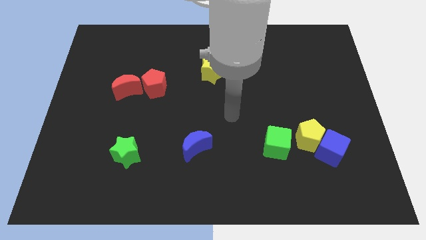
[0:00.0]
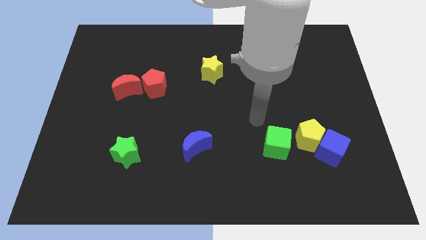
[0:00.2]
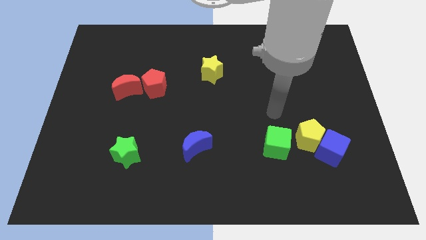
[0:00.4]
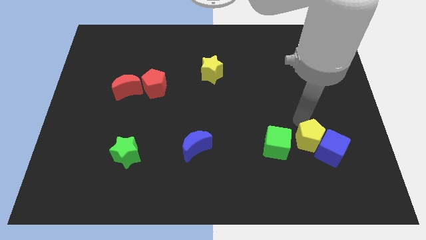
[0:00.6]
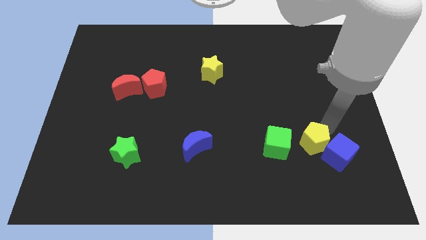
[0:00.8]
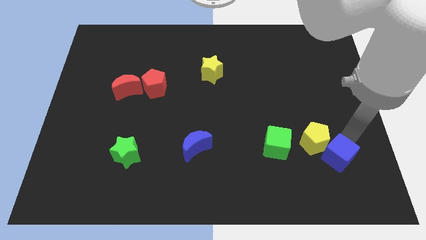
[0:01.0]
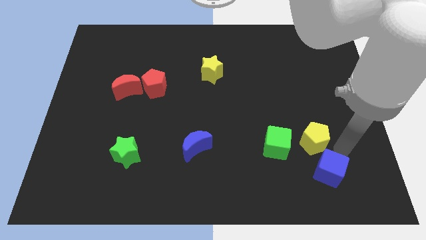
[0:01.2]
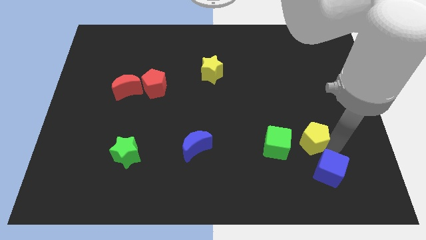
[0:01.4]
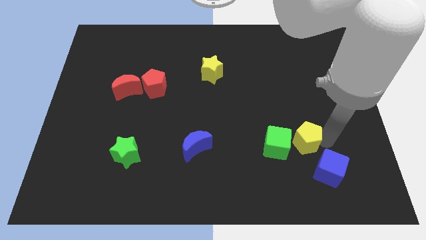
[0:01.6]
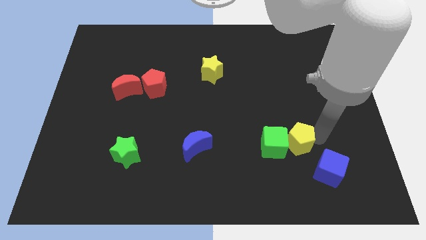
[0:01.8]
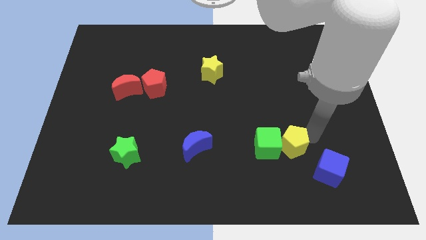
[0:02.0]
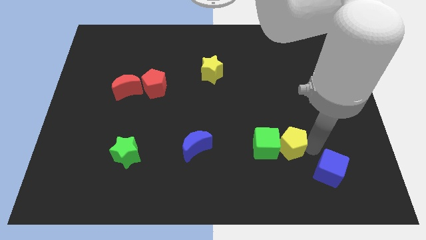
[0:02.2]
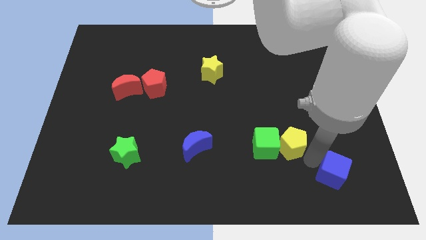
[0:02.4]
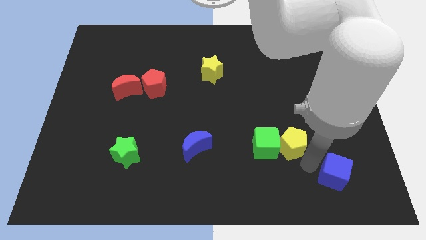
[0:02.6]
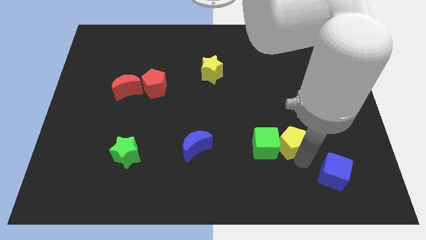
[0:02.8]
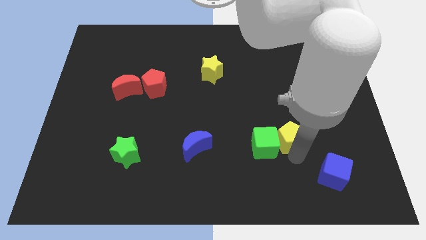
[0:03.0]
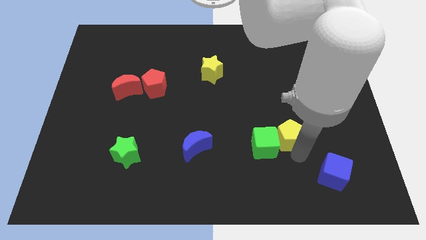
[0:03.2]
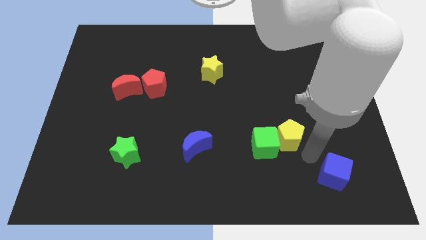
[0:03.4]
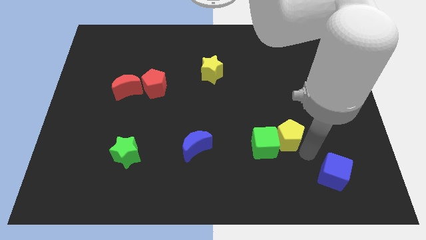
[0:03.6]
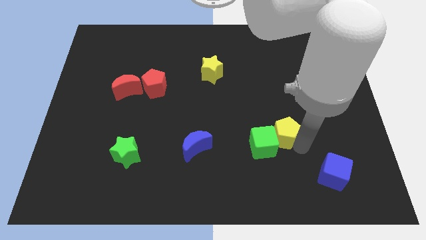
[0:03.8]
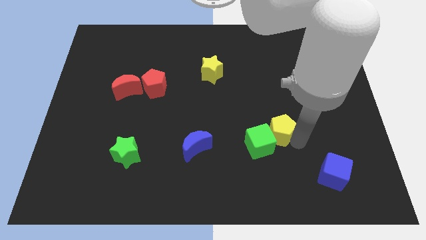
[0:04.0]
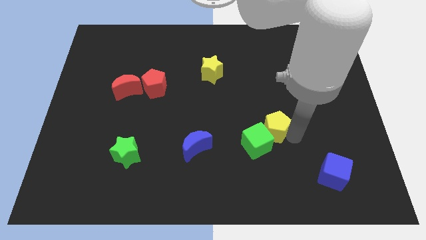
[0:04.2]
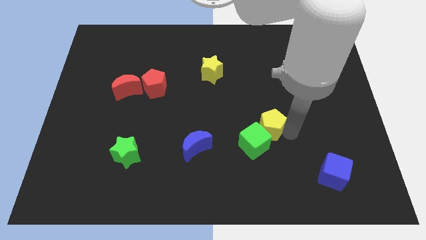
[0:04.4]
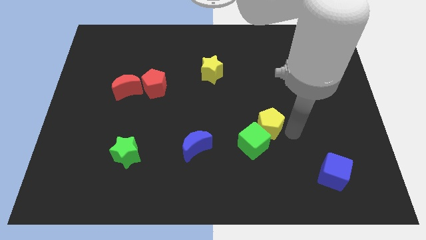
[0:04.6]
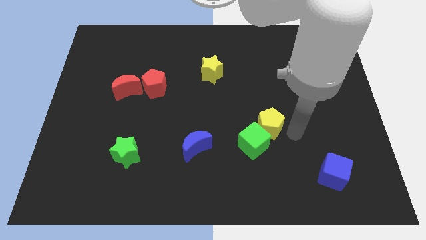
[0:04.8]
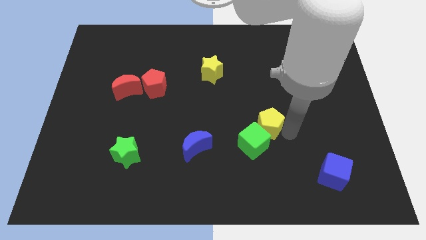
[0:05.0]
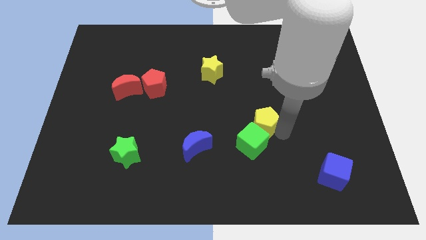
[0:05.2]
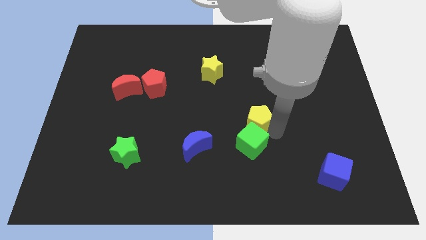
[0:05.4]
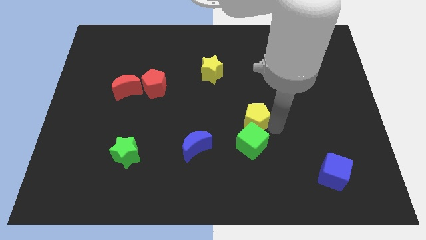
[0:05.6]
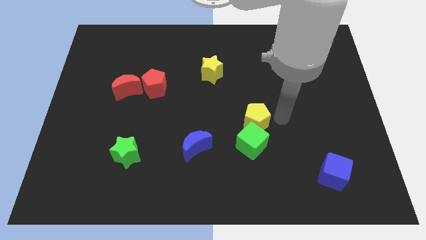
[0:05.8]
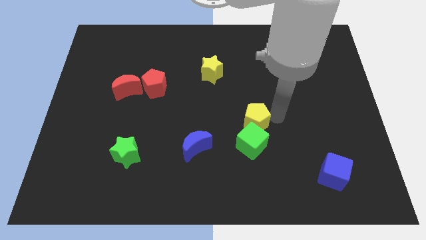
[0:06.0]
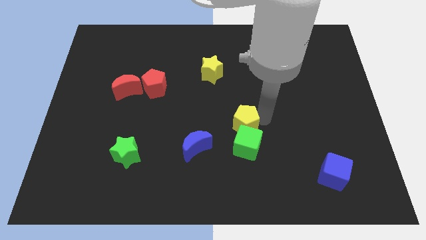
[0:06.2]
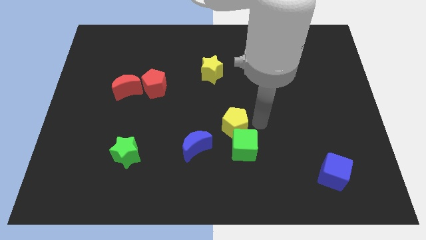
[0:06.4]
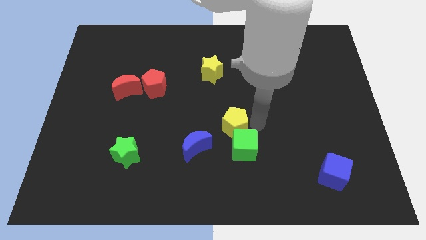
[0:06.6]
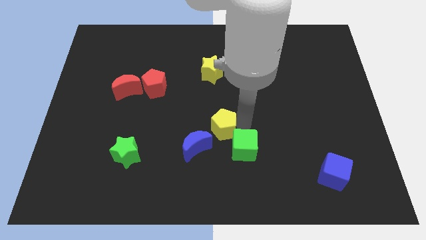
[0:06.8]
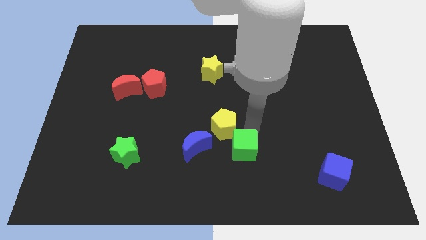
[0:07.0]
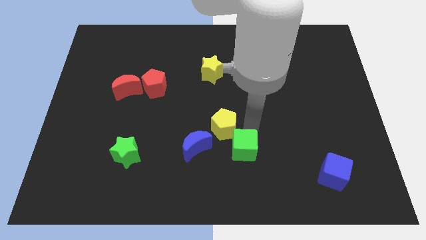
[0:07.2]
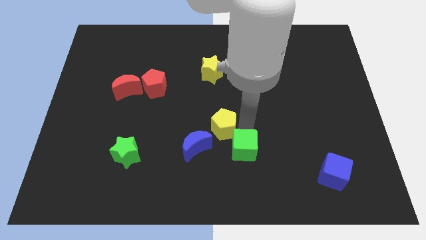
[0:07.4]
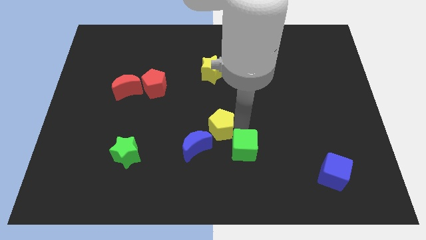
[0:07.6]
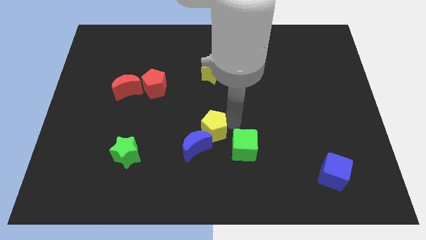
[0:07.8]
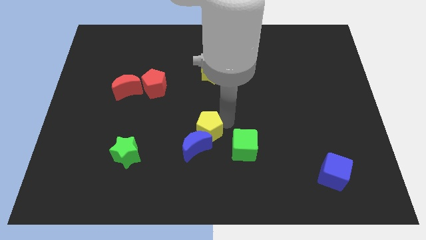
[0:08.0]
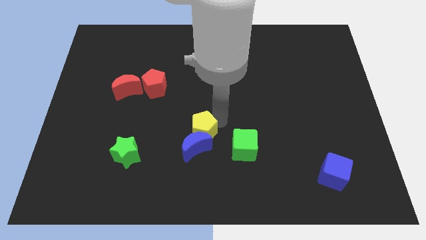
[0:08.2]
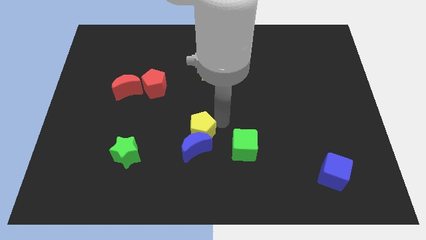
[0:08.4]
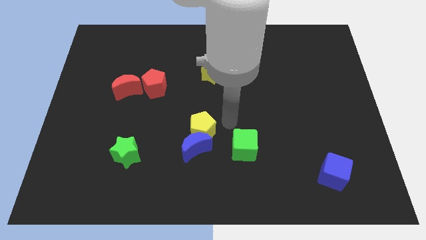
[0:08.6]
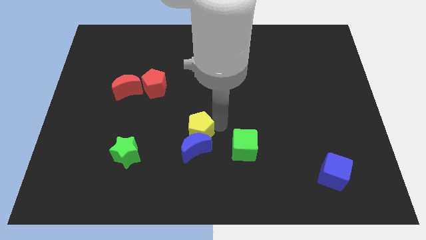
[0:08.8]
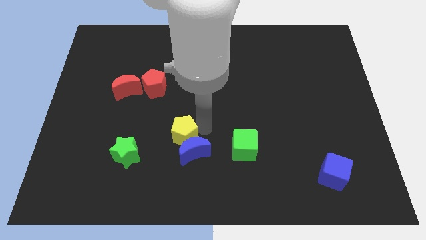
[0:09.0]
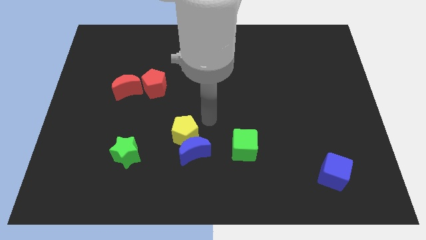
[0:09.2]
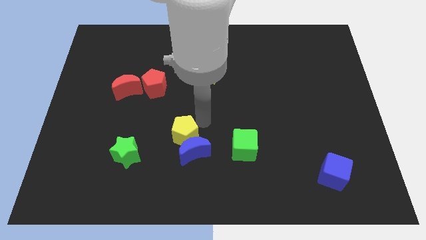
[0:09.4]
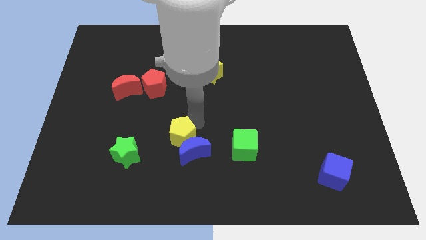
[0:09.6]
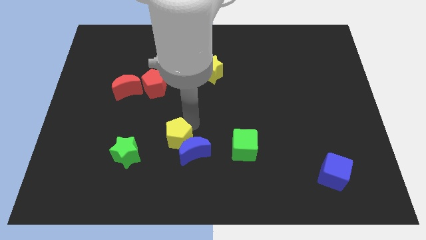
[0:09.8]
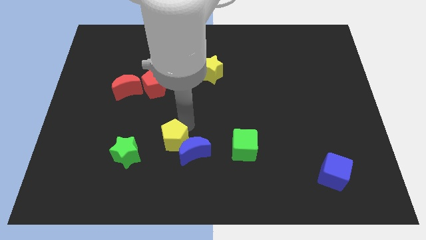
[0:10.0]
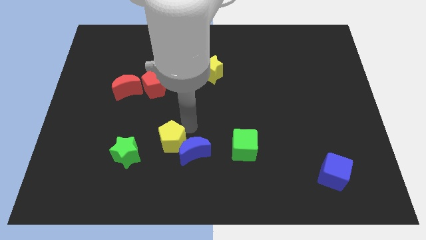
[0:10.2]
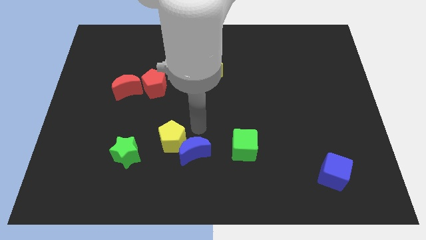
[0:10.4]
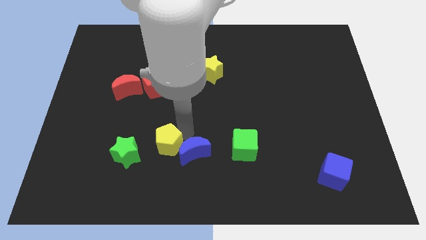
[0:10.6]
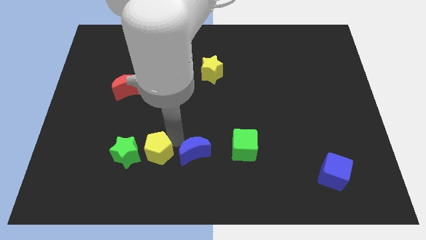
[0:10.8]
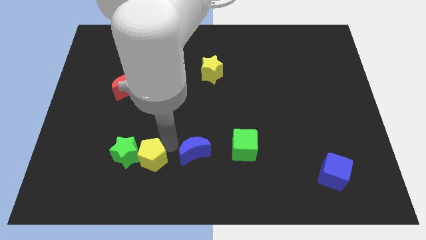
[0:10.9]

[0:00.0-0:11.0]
push the yellow pentagon to the green star
